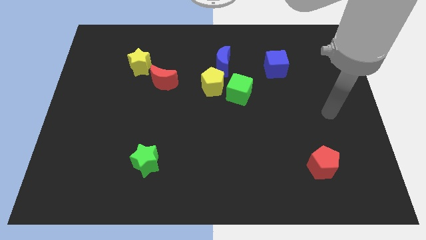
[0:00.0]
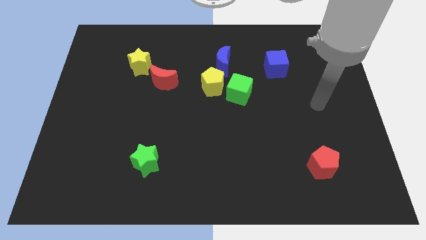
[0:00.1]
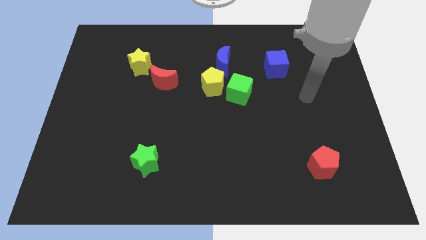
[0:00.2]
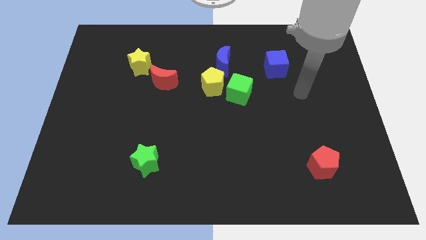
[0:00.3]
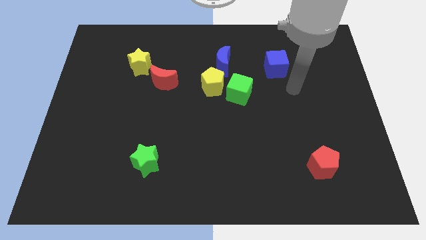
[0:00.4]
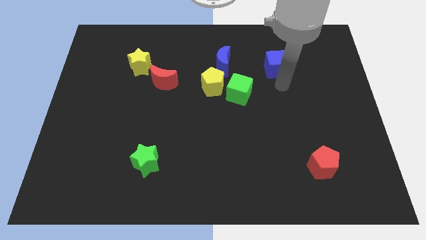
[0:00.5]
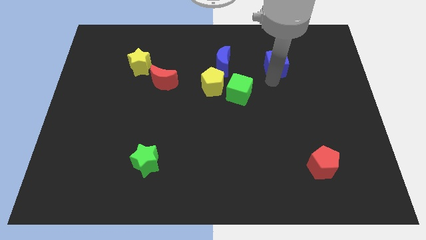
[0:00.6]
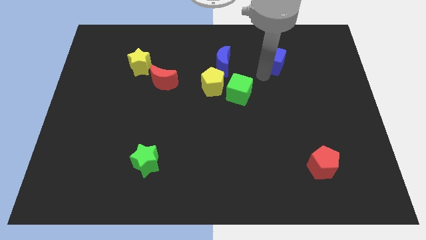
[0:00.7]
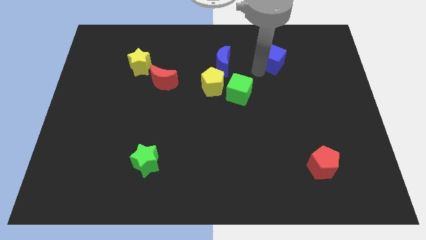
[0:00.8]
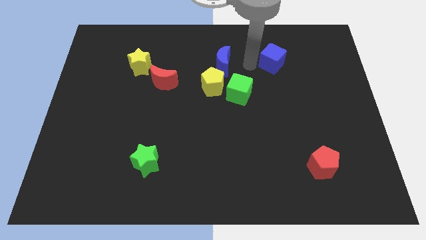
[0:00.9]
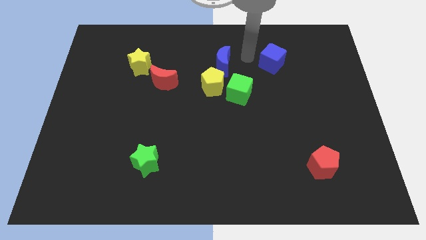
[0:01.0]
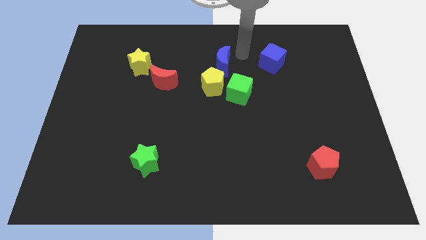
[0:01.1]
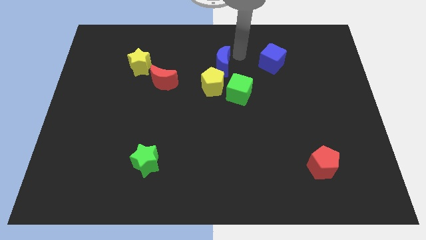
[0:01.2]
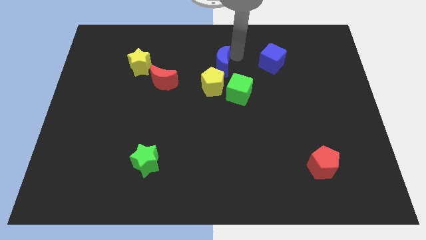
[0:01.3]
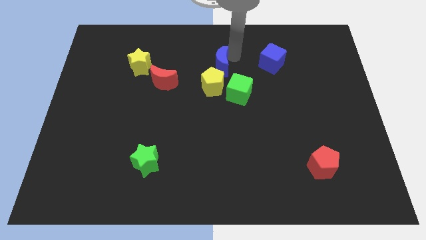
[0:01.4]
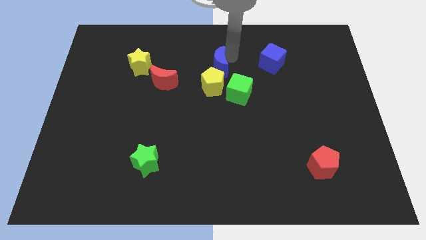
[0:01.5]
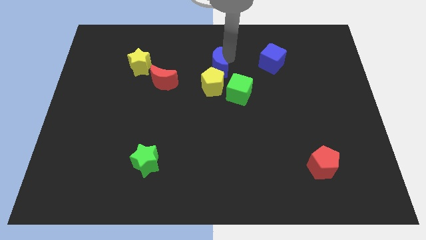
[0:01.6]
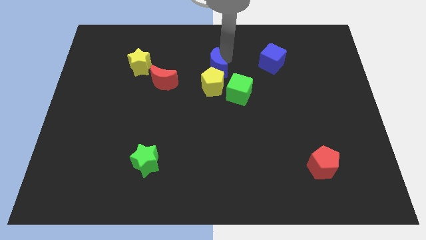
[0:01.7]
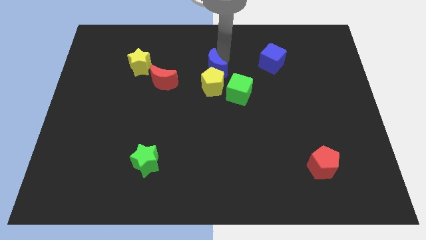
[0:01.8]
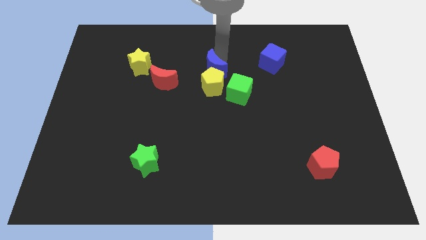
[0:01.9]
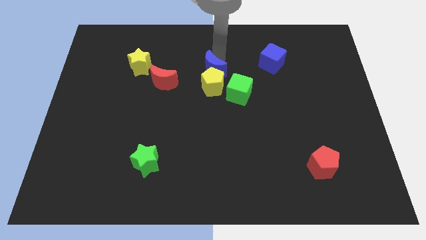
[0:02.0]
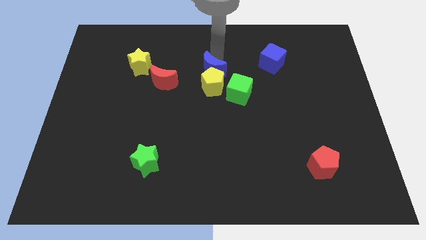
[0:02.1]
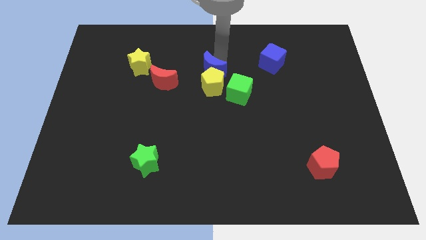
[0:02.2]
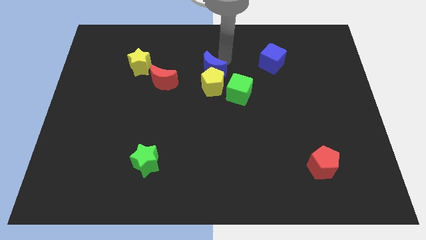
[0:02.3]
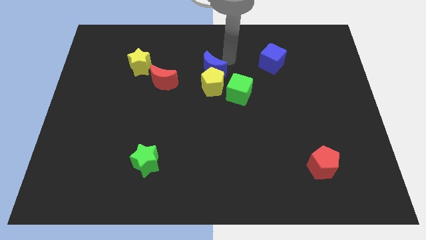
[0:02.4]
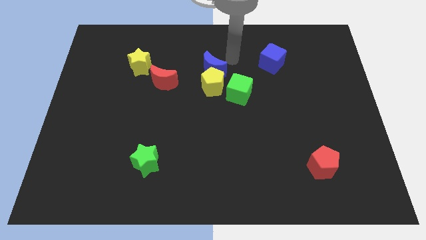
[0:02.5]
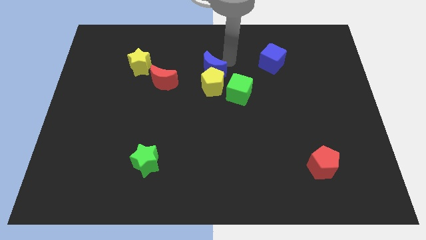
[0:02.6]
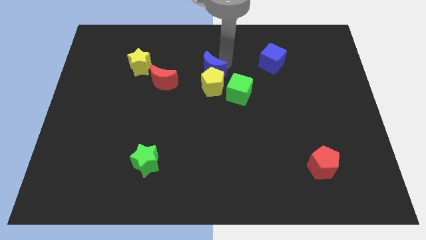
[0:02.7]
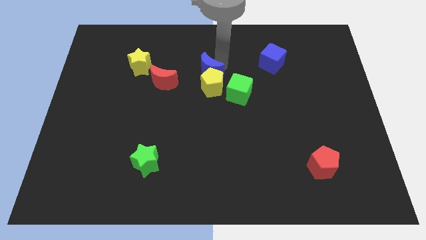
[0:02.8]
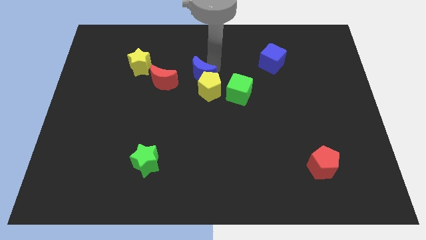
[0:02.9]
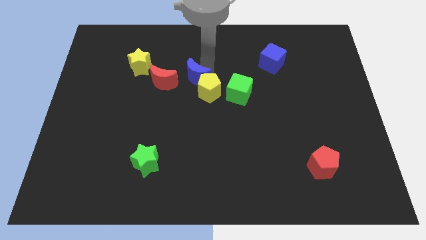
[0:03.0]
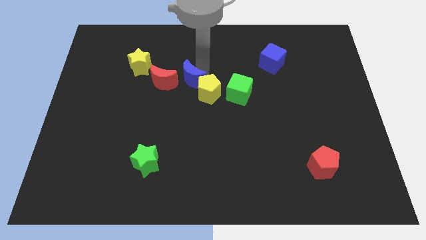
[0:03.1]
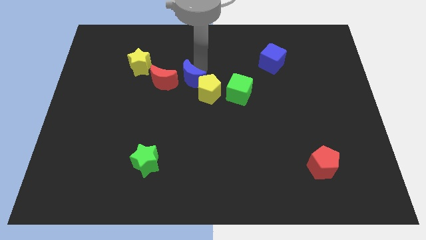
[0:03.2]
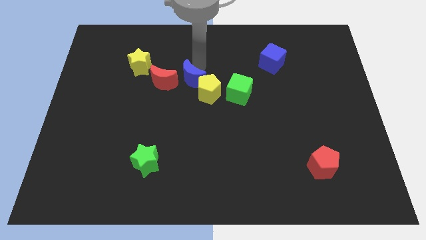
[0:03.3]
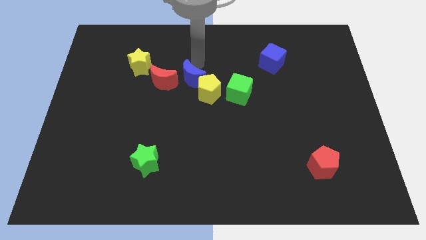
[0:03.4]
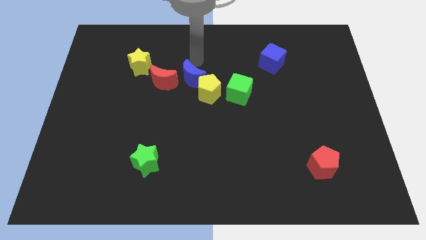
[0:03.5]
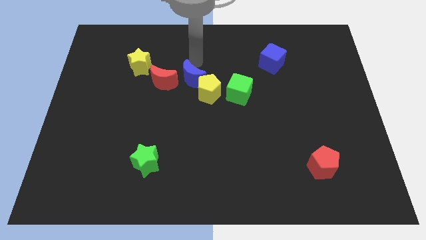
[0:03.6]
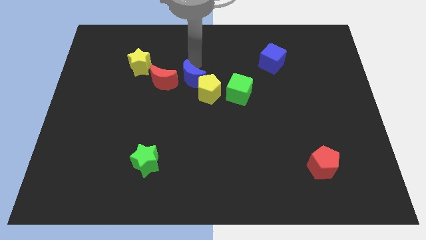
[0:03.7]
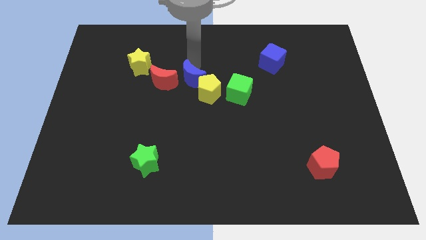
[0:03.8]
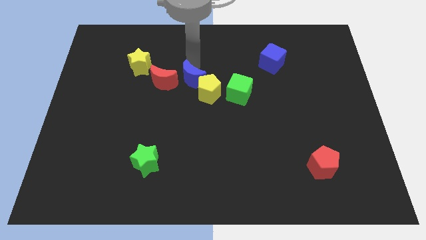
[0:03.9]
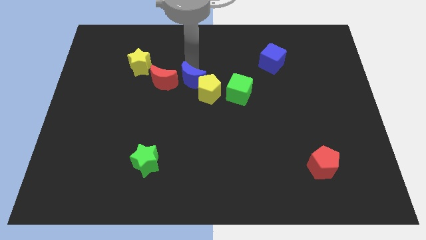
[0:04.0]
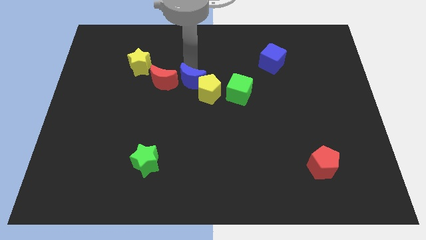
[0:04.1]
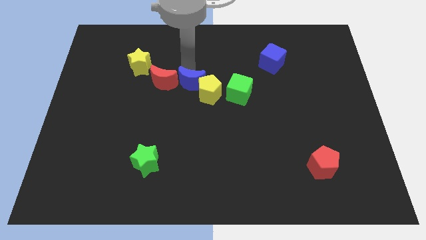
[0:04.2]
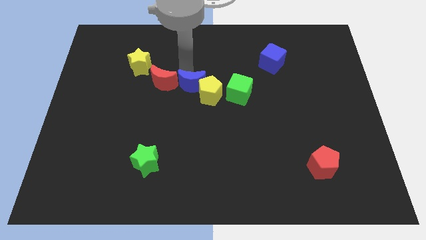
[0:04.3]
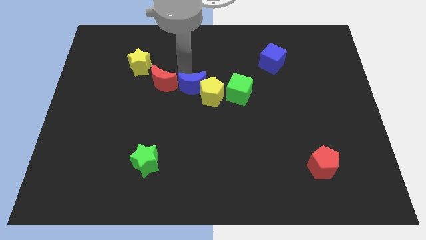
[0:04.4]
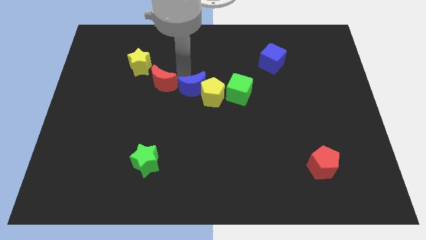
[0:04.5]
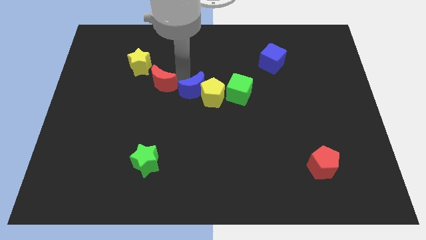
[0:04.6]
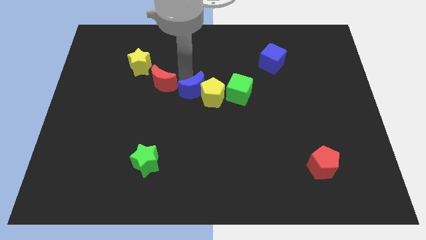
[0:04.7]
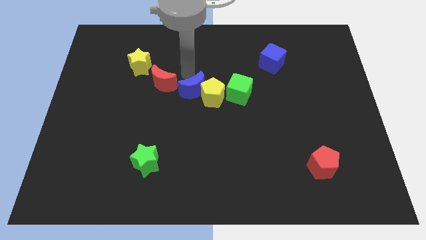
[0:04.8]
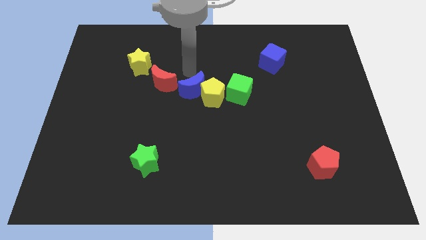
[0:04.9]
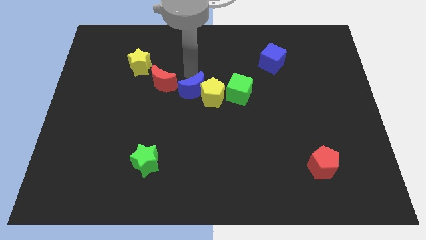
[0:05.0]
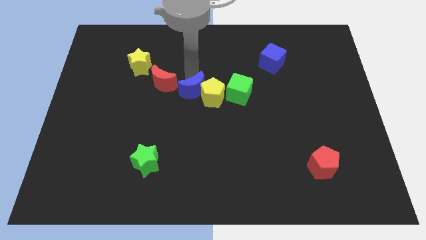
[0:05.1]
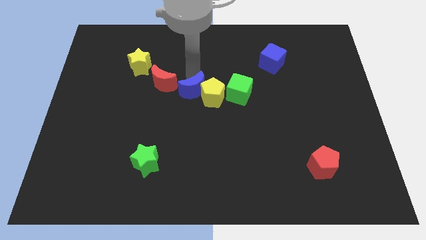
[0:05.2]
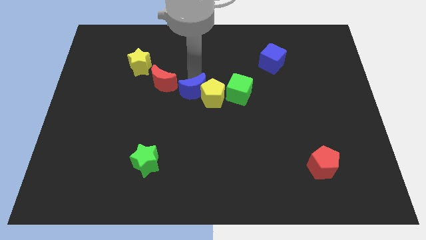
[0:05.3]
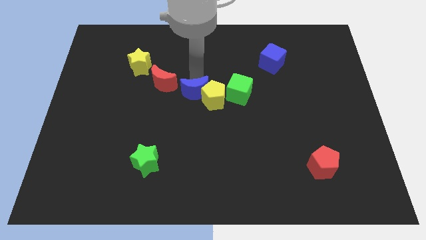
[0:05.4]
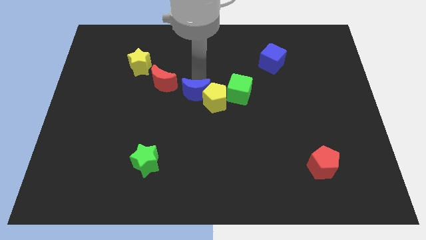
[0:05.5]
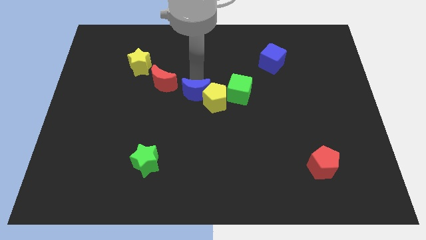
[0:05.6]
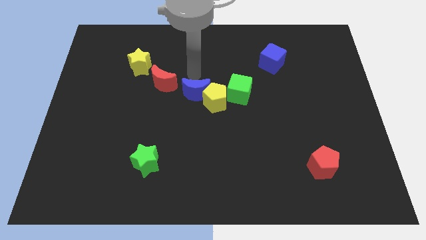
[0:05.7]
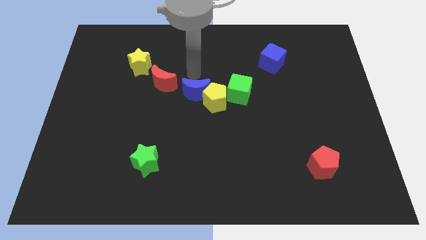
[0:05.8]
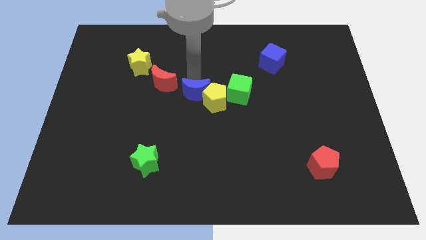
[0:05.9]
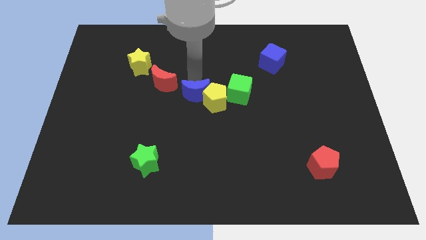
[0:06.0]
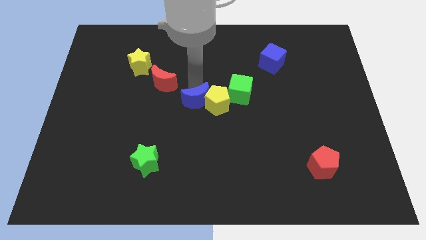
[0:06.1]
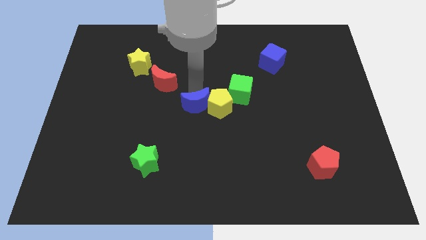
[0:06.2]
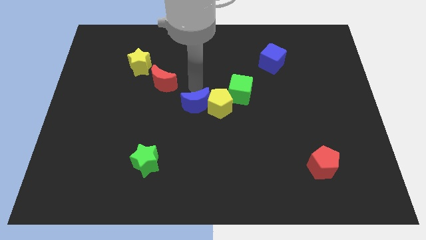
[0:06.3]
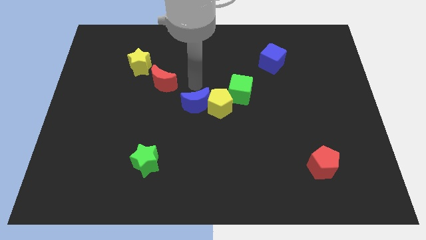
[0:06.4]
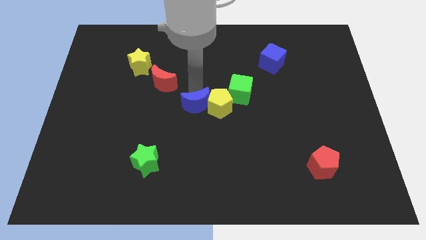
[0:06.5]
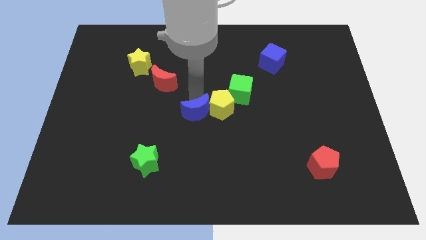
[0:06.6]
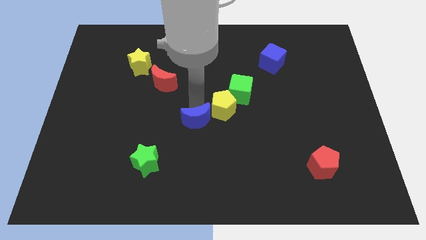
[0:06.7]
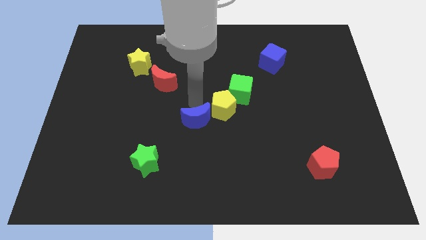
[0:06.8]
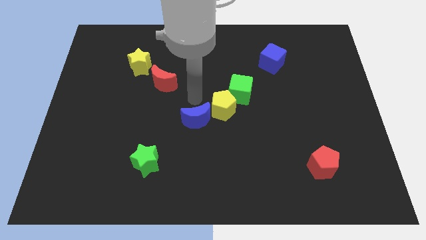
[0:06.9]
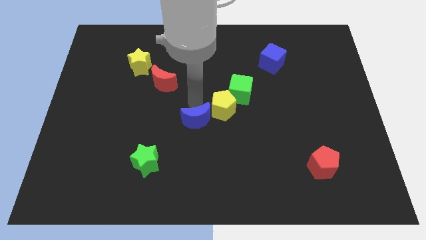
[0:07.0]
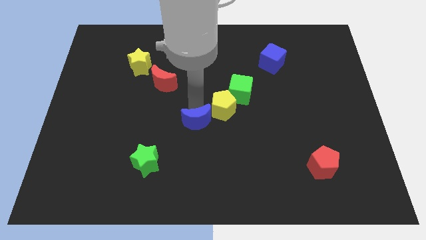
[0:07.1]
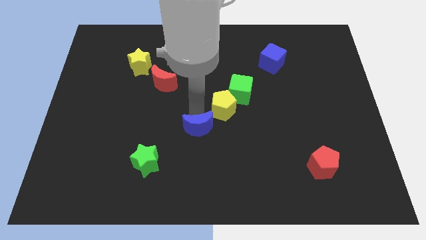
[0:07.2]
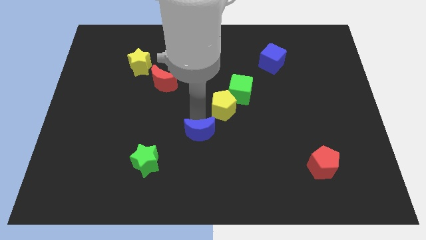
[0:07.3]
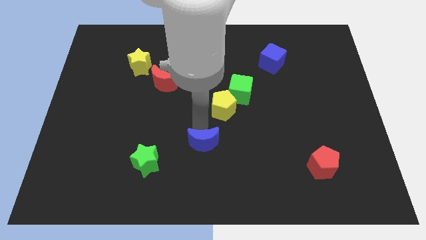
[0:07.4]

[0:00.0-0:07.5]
move the blue moon to the right side of the green star
